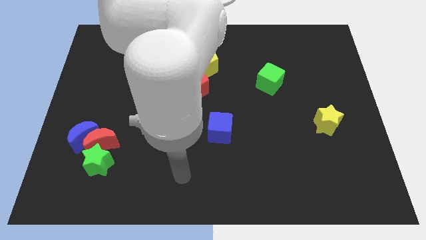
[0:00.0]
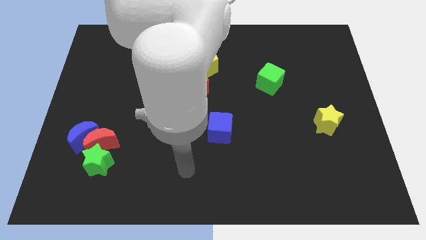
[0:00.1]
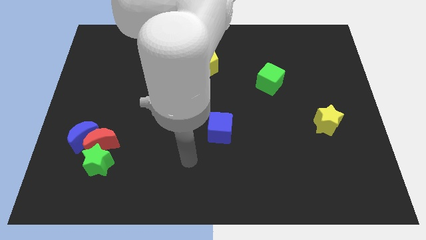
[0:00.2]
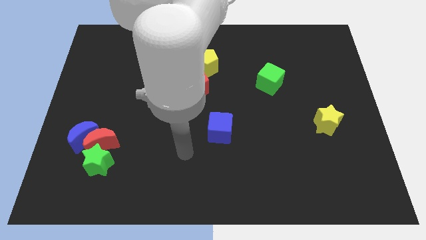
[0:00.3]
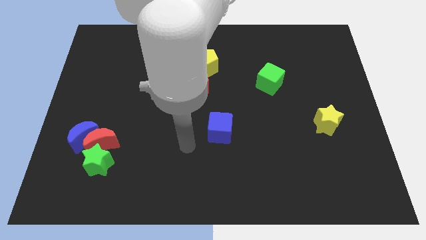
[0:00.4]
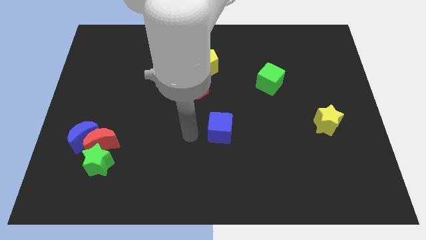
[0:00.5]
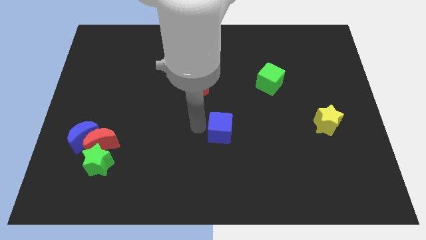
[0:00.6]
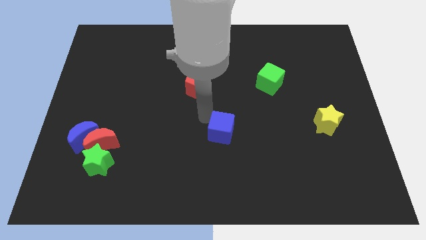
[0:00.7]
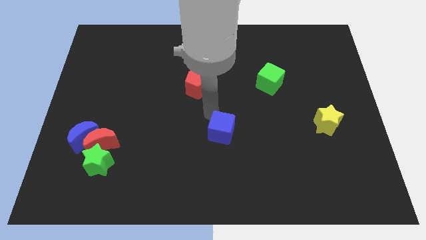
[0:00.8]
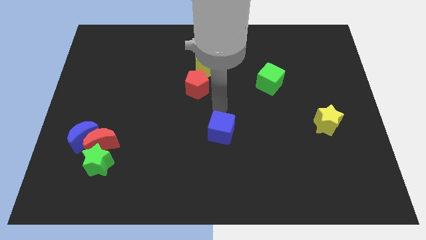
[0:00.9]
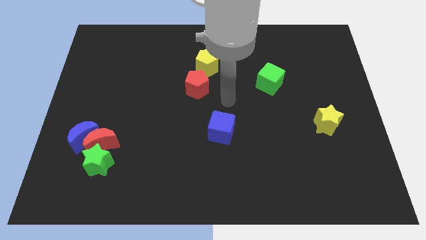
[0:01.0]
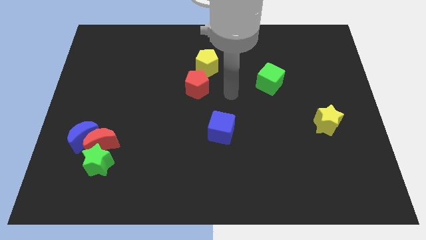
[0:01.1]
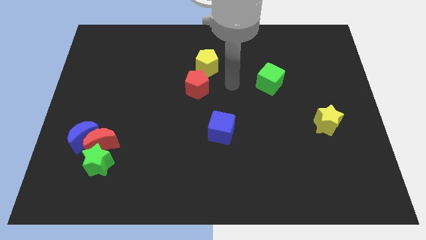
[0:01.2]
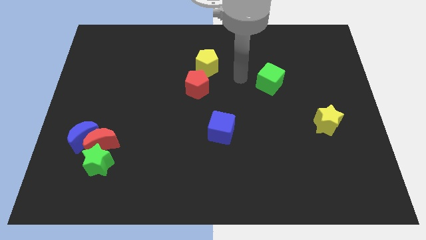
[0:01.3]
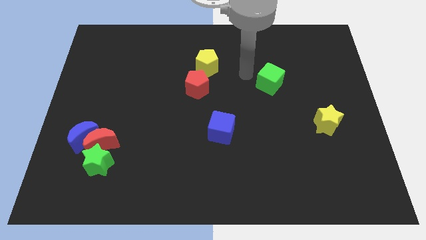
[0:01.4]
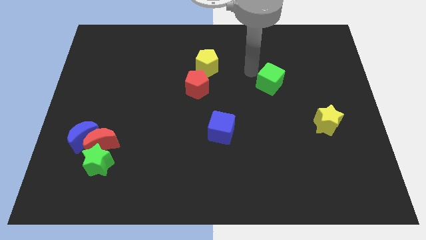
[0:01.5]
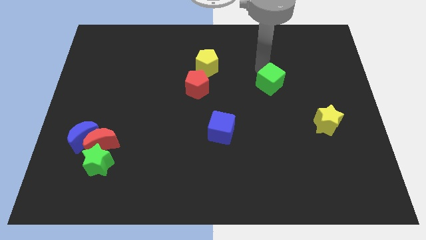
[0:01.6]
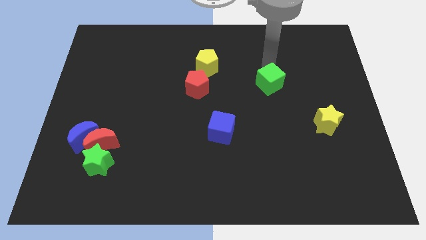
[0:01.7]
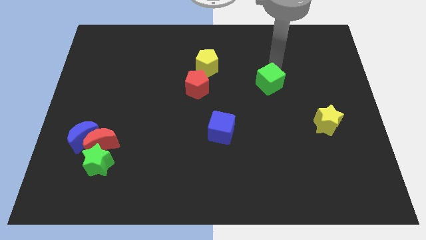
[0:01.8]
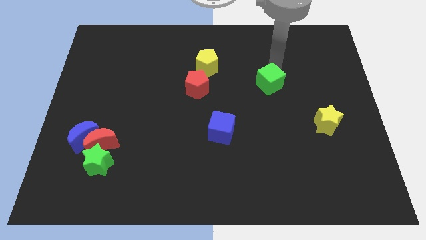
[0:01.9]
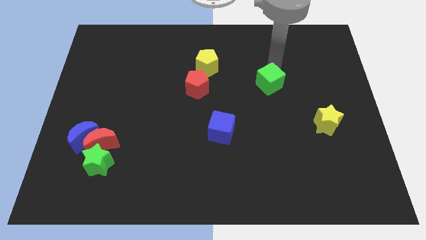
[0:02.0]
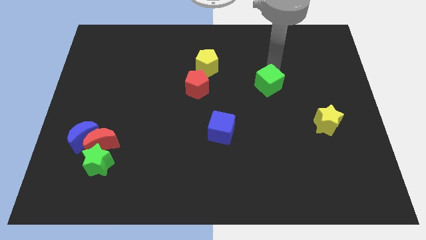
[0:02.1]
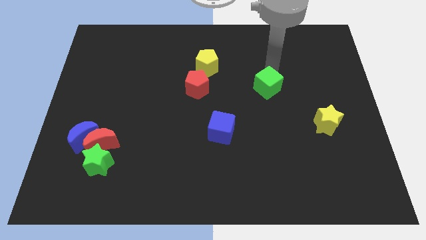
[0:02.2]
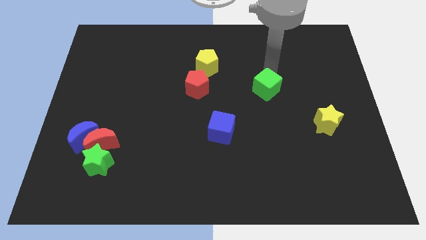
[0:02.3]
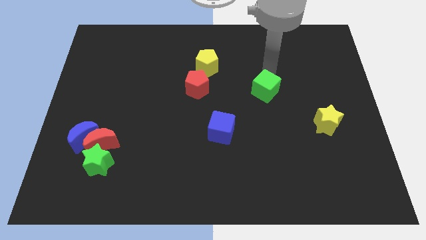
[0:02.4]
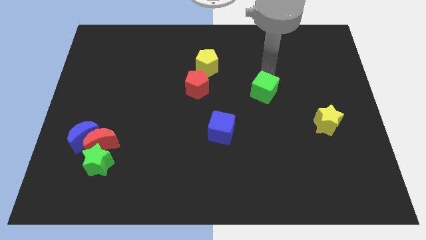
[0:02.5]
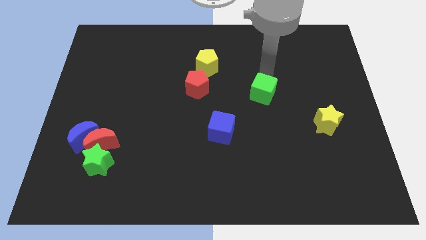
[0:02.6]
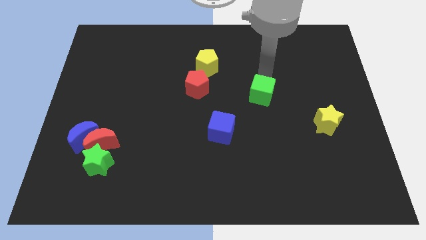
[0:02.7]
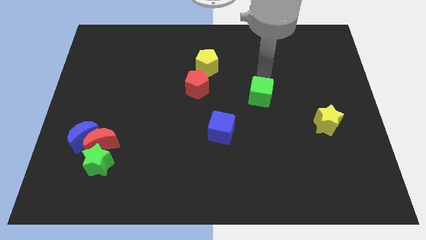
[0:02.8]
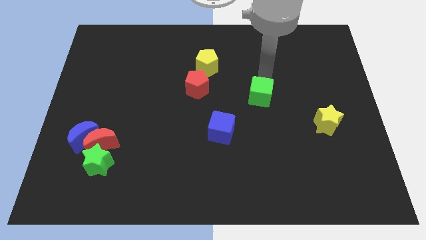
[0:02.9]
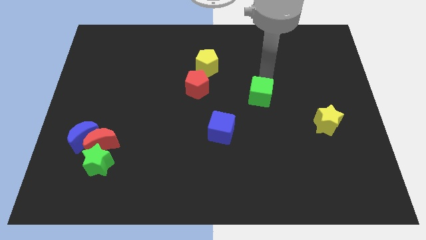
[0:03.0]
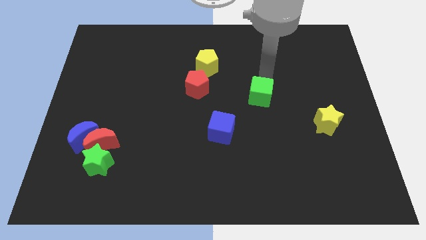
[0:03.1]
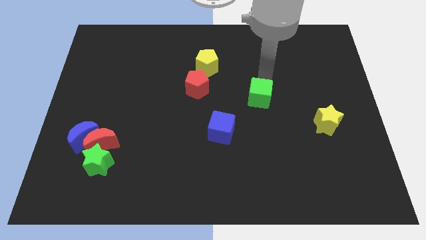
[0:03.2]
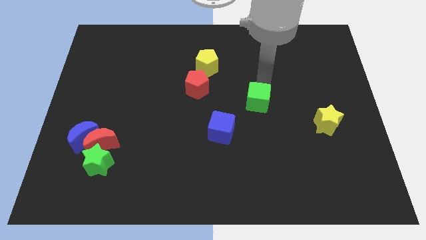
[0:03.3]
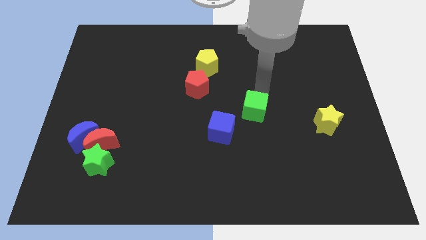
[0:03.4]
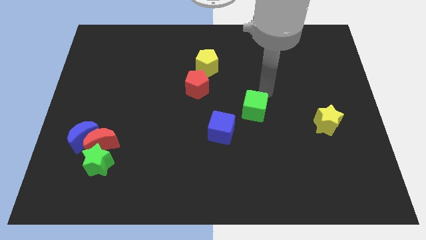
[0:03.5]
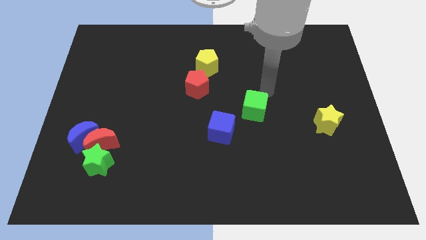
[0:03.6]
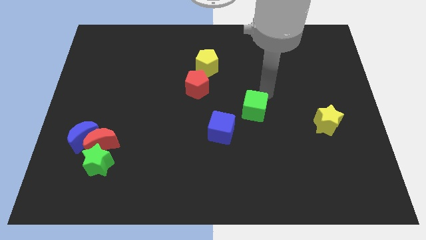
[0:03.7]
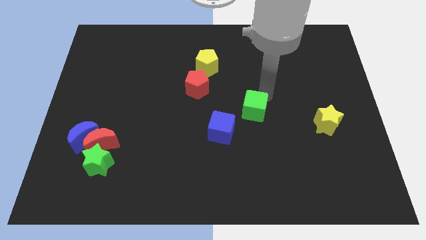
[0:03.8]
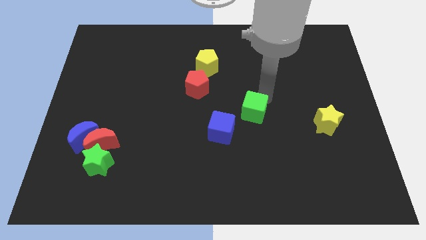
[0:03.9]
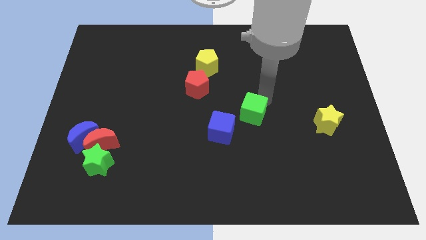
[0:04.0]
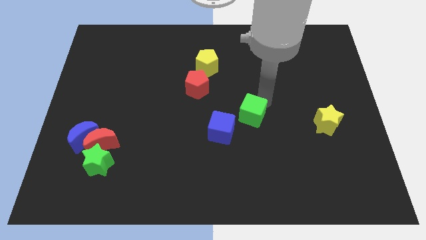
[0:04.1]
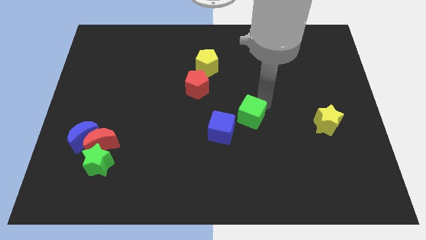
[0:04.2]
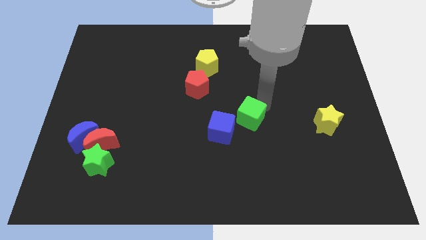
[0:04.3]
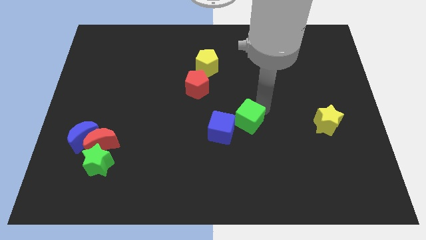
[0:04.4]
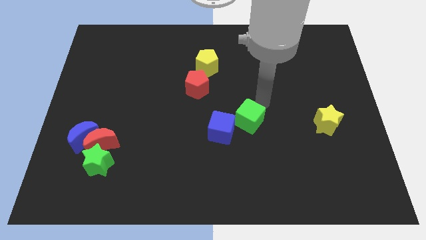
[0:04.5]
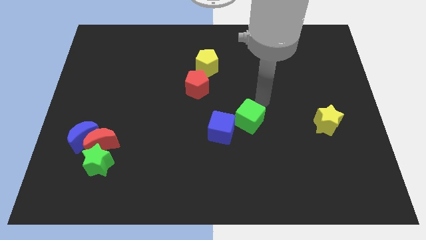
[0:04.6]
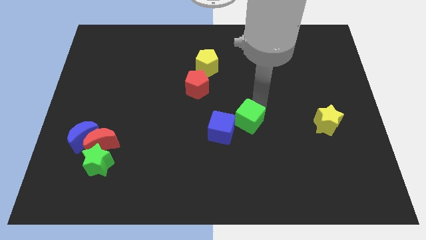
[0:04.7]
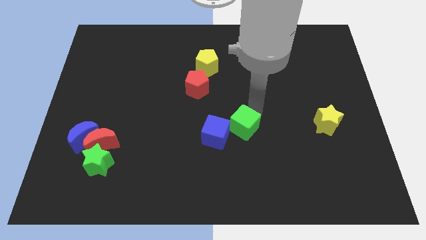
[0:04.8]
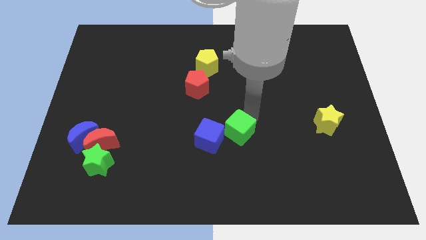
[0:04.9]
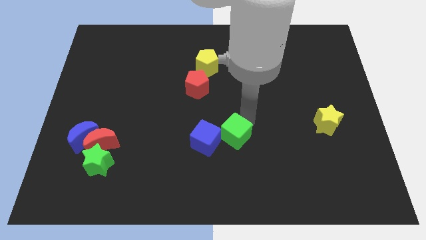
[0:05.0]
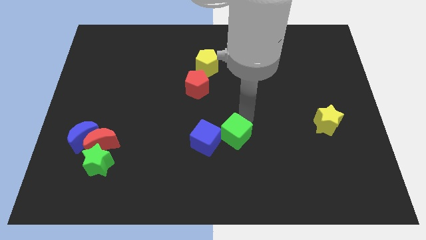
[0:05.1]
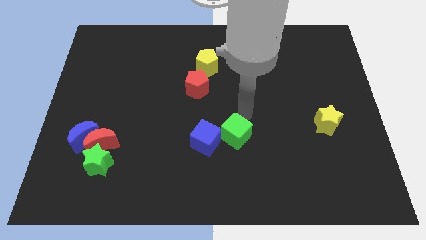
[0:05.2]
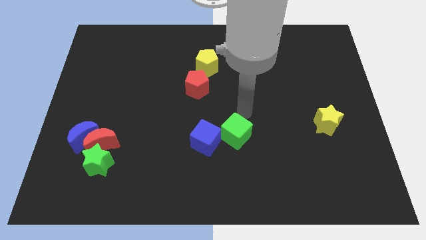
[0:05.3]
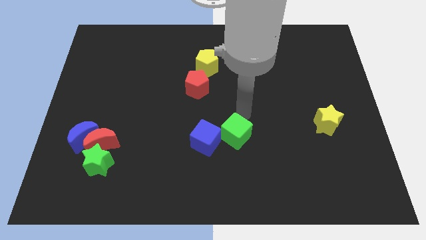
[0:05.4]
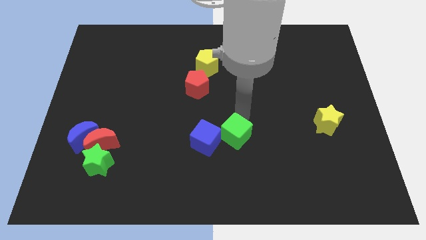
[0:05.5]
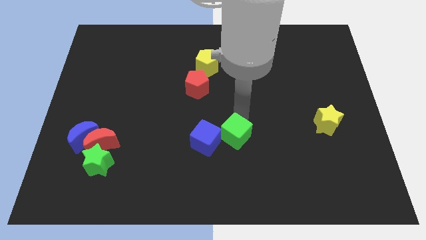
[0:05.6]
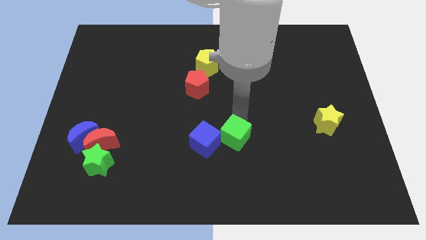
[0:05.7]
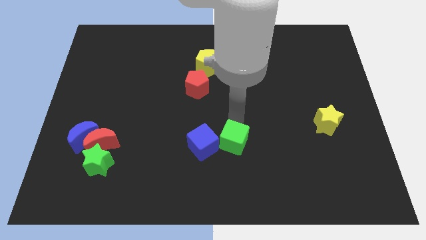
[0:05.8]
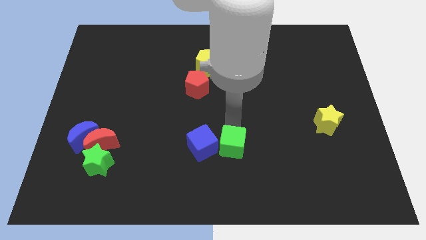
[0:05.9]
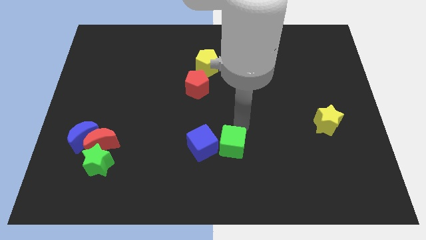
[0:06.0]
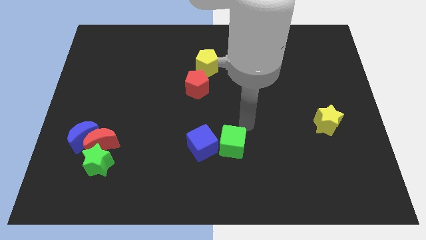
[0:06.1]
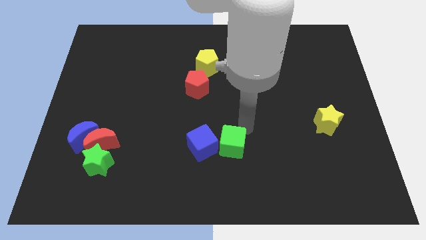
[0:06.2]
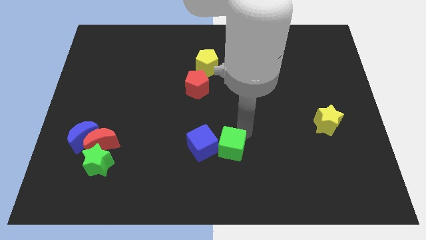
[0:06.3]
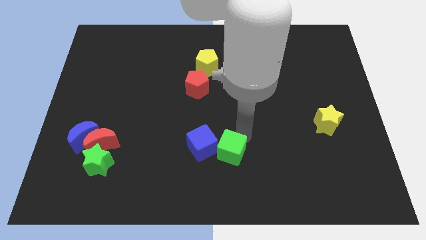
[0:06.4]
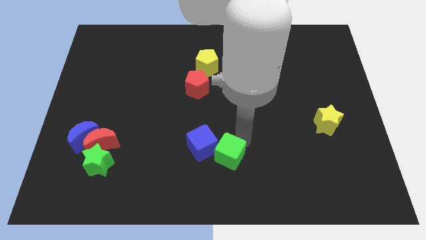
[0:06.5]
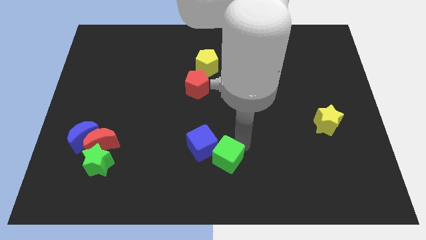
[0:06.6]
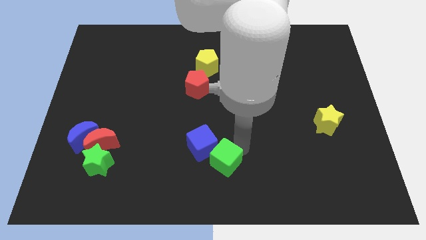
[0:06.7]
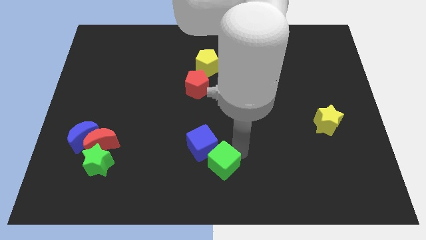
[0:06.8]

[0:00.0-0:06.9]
put the green cube to the bottom of the blue cube
